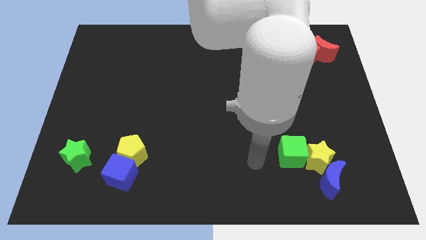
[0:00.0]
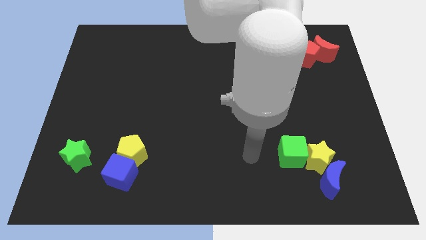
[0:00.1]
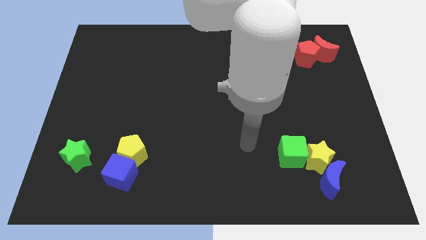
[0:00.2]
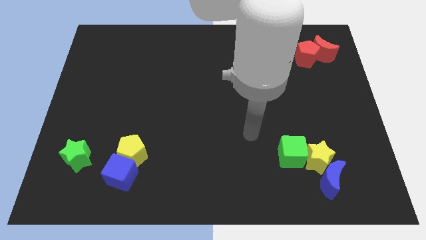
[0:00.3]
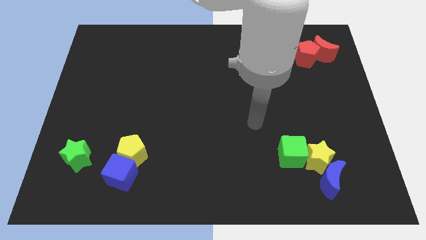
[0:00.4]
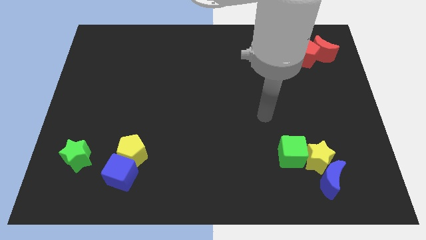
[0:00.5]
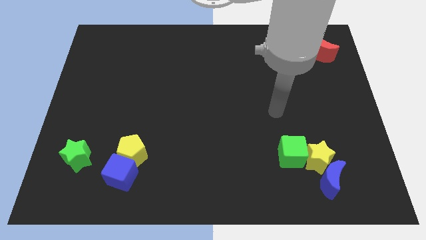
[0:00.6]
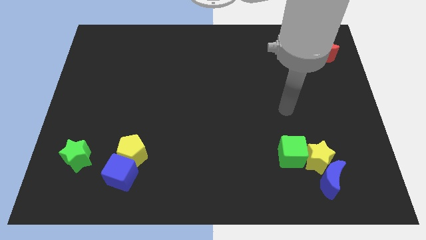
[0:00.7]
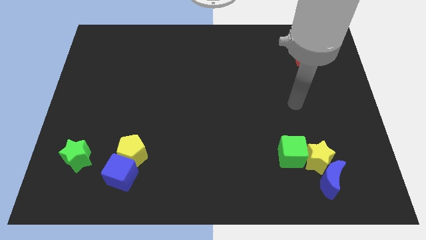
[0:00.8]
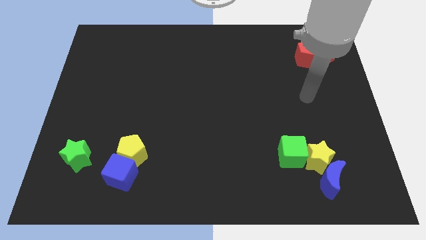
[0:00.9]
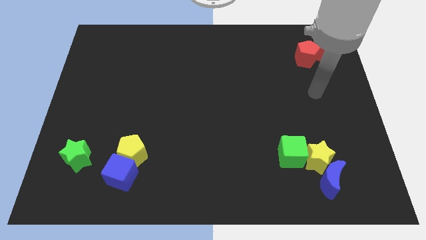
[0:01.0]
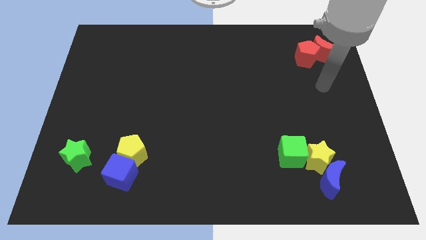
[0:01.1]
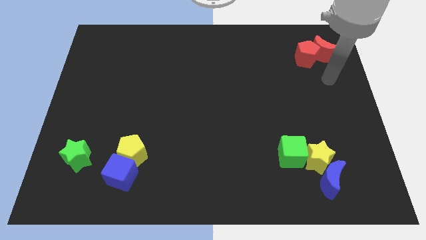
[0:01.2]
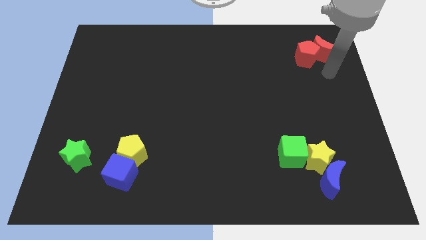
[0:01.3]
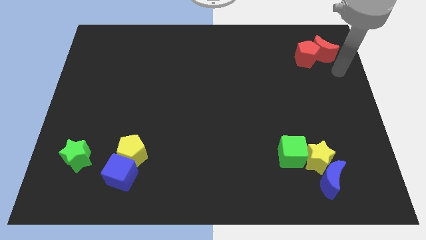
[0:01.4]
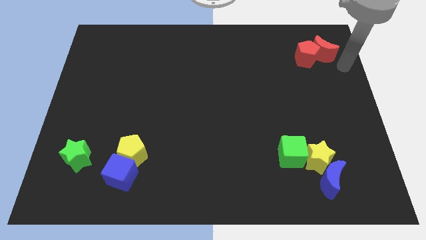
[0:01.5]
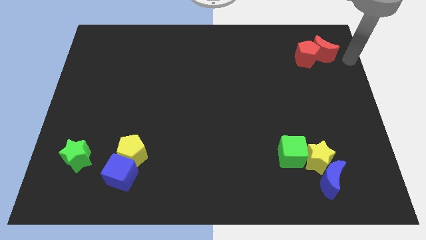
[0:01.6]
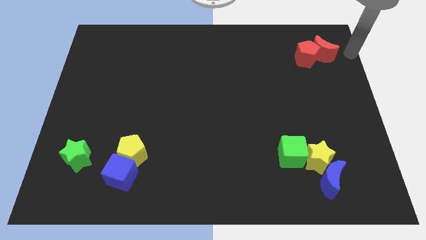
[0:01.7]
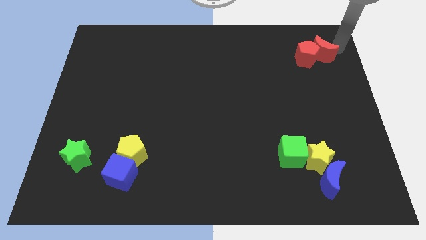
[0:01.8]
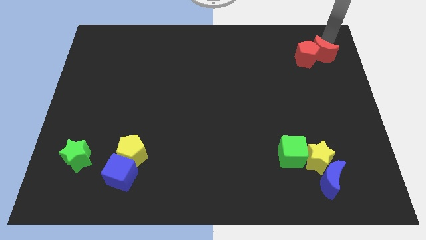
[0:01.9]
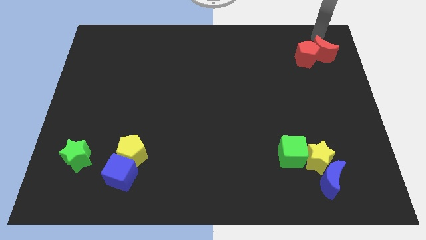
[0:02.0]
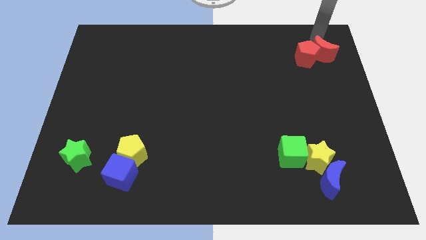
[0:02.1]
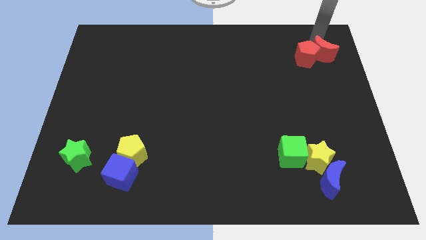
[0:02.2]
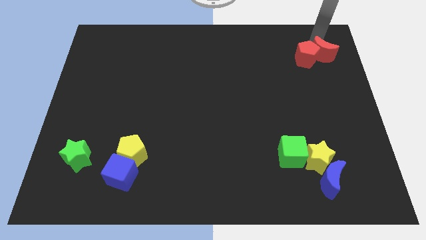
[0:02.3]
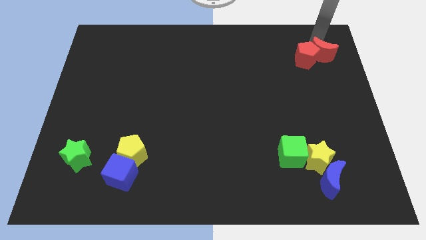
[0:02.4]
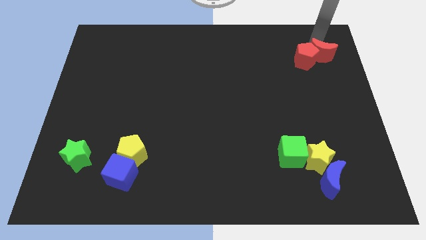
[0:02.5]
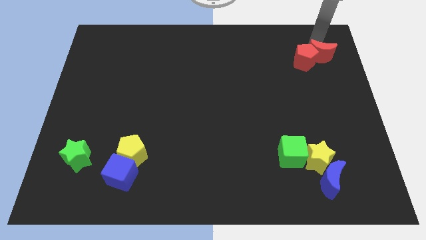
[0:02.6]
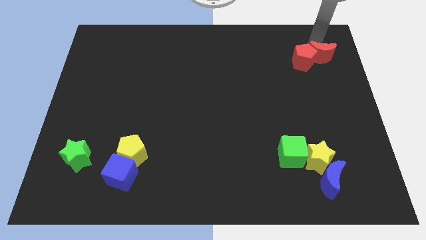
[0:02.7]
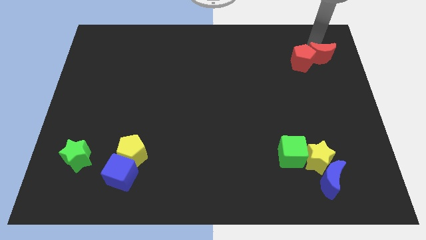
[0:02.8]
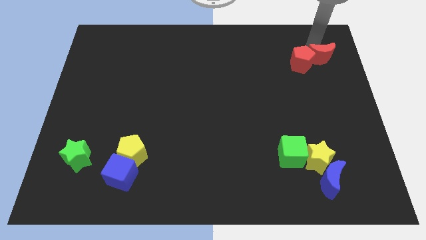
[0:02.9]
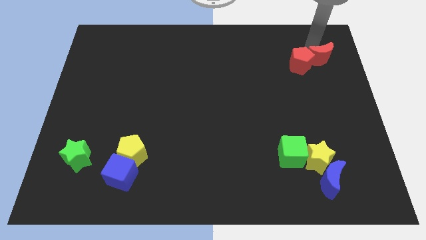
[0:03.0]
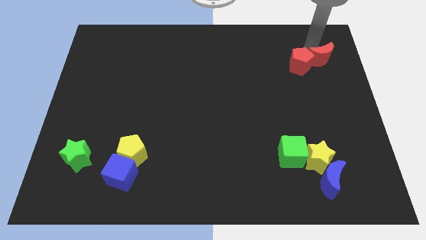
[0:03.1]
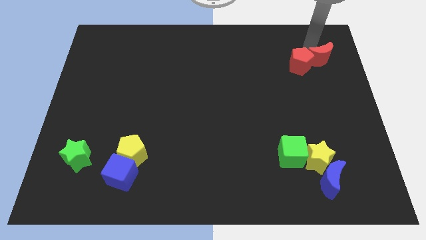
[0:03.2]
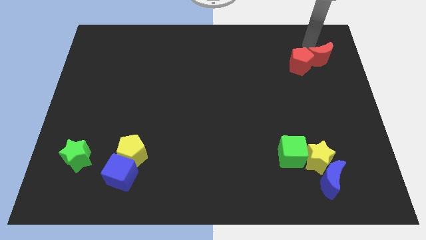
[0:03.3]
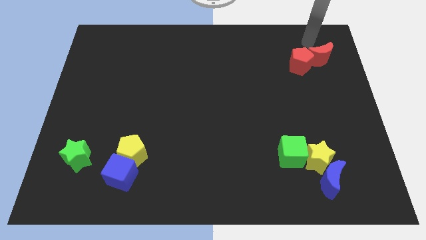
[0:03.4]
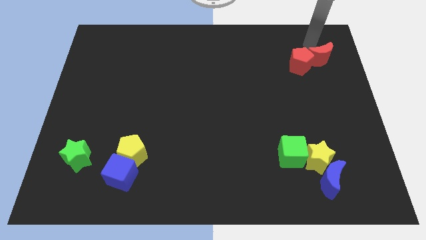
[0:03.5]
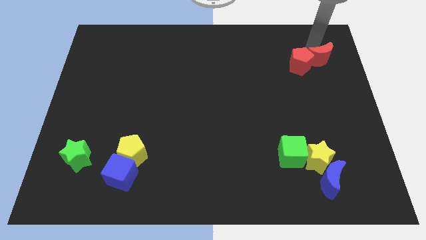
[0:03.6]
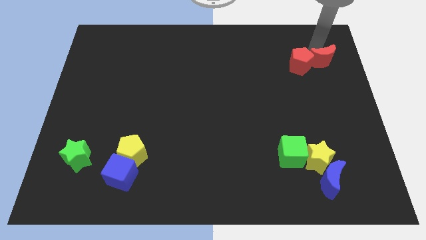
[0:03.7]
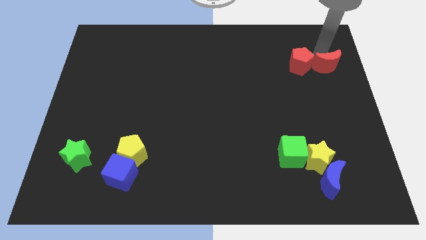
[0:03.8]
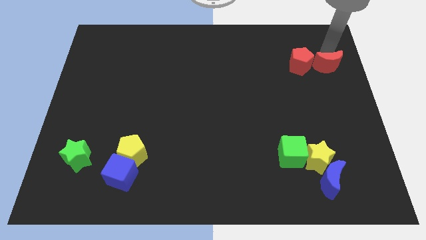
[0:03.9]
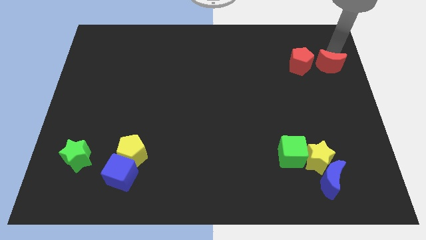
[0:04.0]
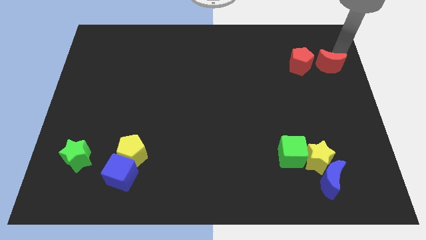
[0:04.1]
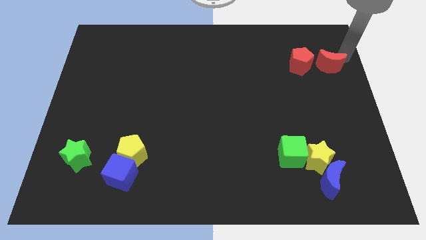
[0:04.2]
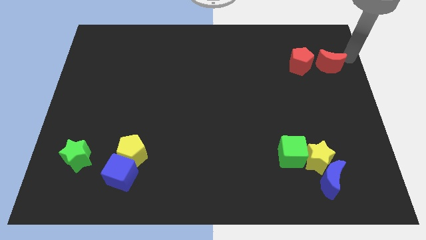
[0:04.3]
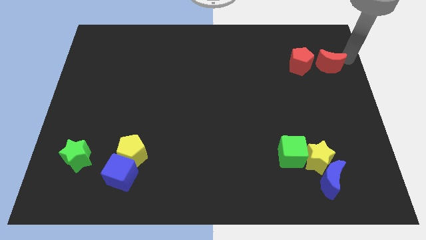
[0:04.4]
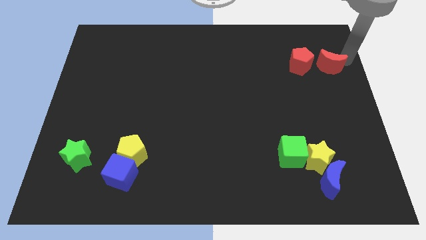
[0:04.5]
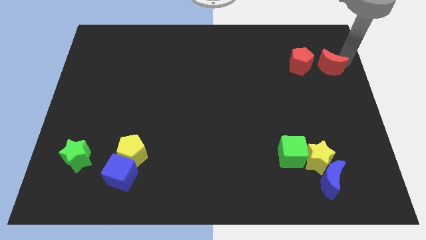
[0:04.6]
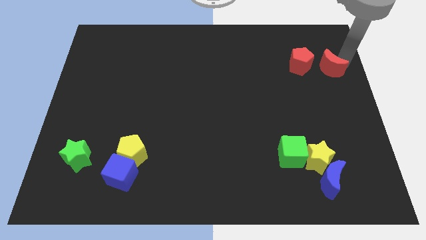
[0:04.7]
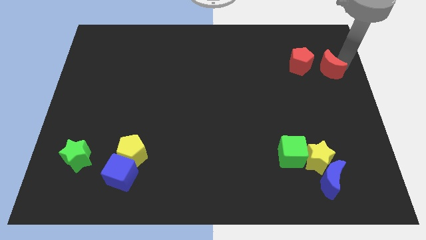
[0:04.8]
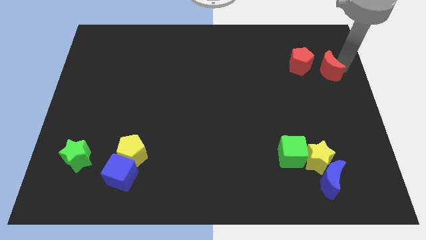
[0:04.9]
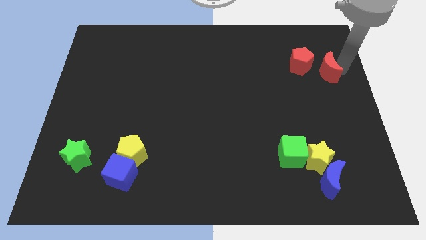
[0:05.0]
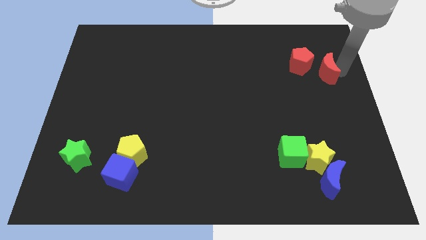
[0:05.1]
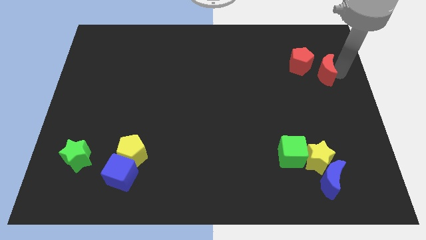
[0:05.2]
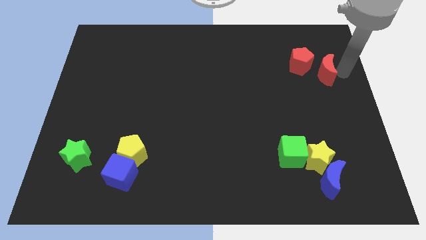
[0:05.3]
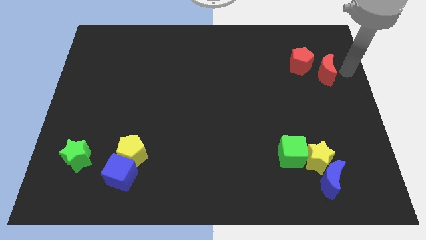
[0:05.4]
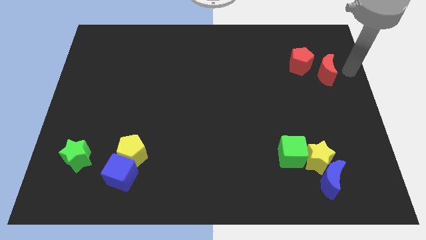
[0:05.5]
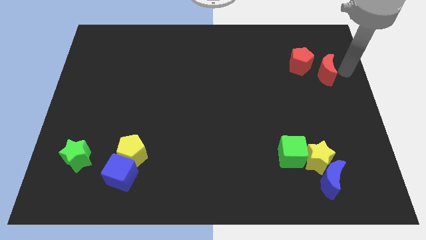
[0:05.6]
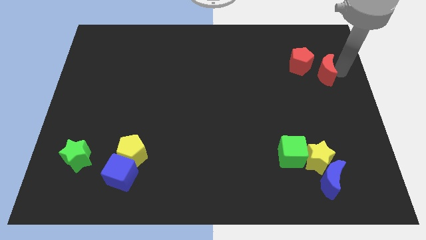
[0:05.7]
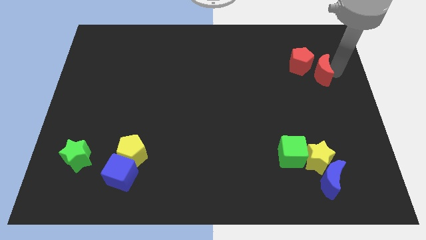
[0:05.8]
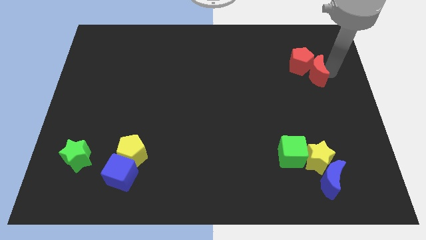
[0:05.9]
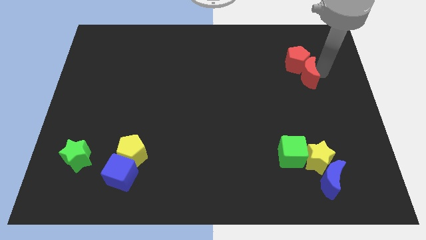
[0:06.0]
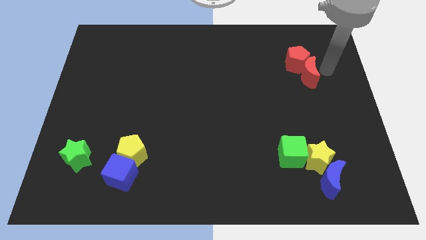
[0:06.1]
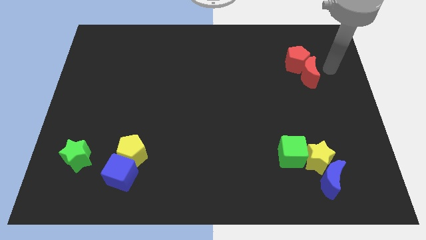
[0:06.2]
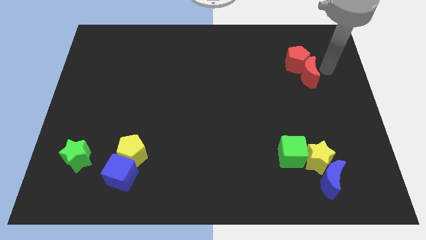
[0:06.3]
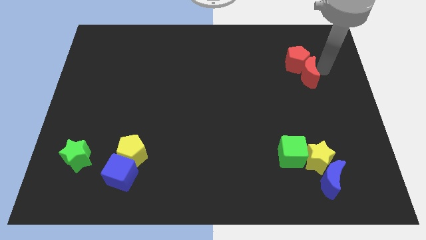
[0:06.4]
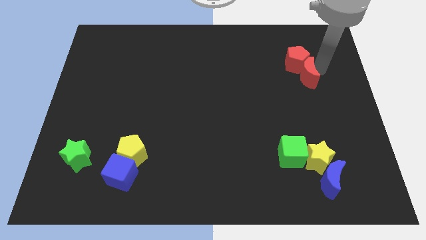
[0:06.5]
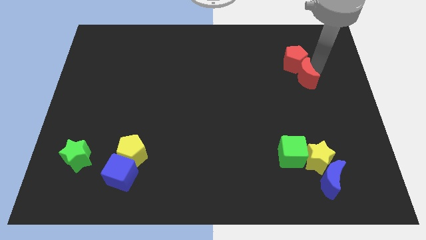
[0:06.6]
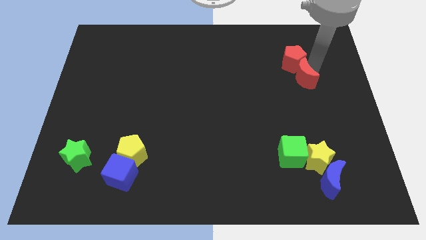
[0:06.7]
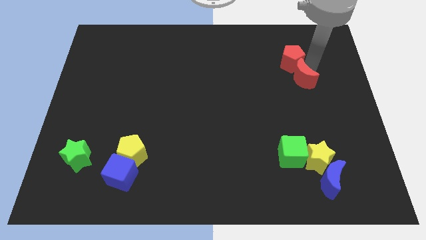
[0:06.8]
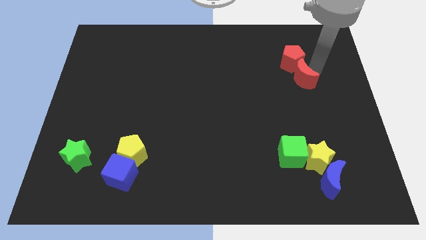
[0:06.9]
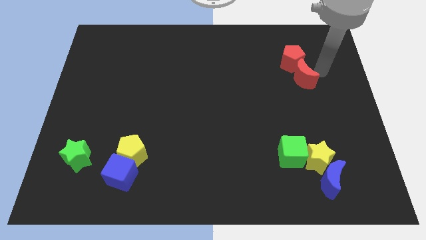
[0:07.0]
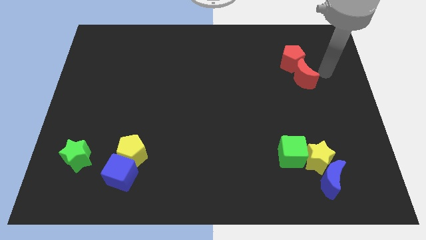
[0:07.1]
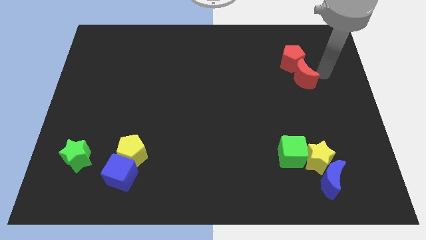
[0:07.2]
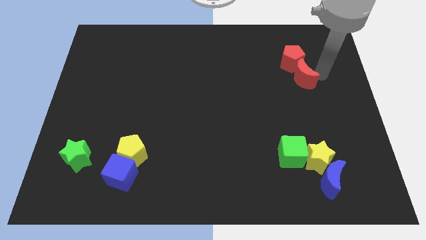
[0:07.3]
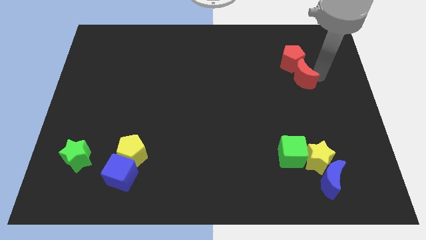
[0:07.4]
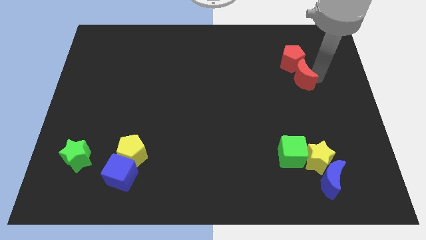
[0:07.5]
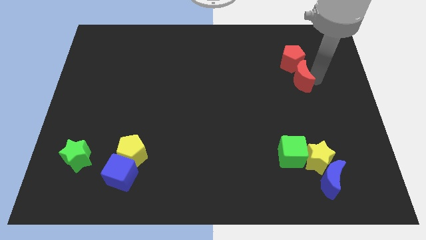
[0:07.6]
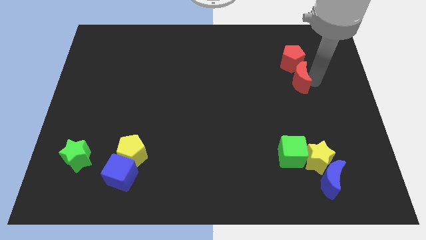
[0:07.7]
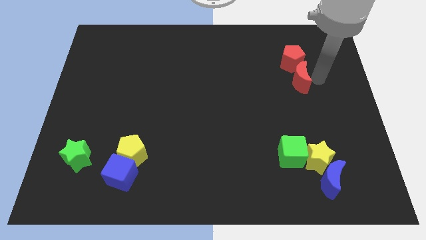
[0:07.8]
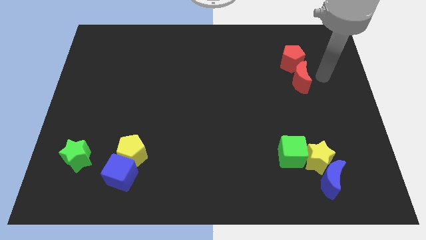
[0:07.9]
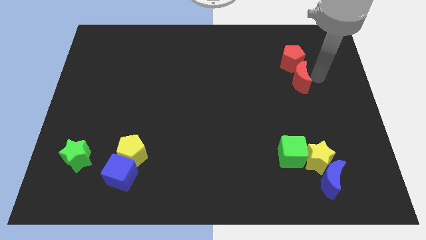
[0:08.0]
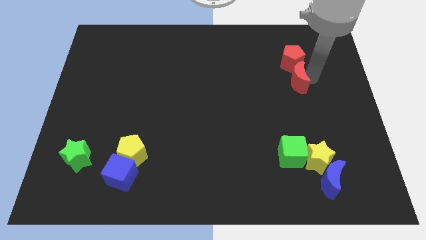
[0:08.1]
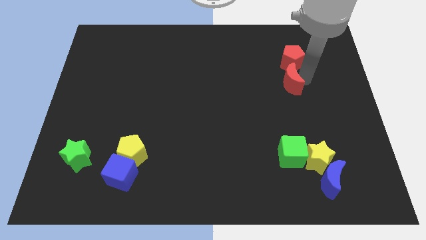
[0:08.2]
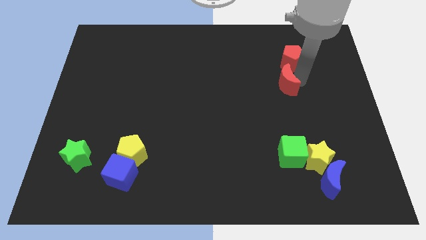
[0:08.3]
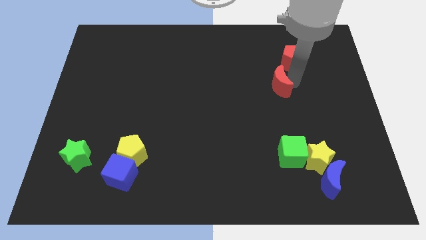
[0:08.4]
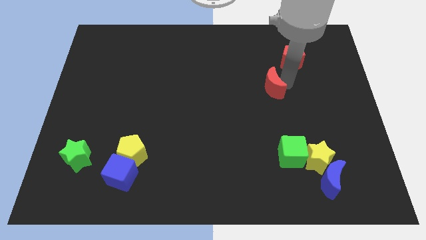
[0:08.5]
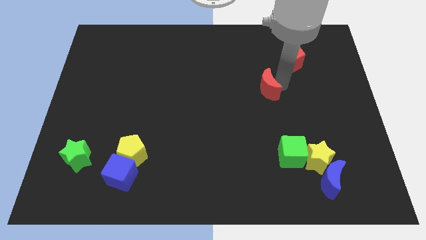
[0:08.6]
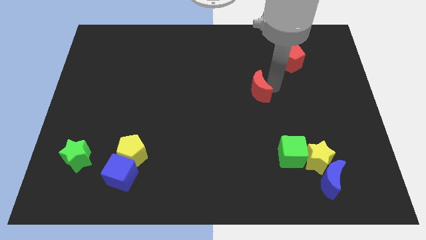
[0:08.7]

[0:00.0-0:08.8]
push the red moon to the center
